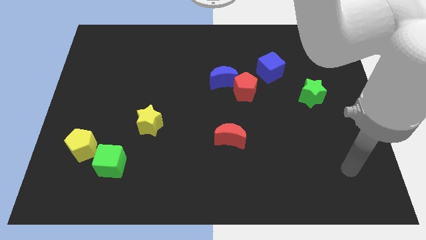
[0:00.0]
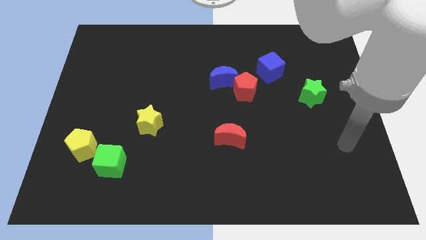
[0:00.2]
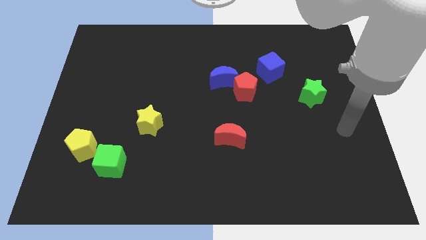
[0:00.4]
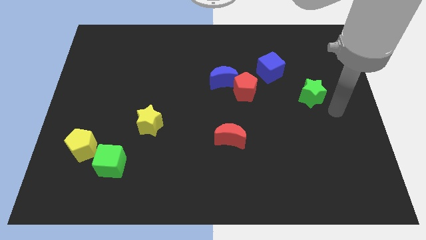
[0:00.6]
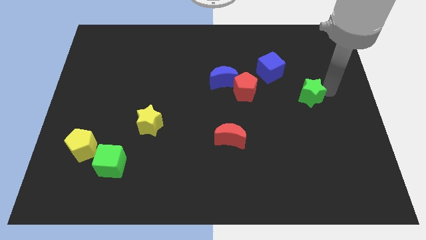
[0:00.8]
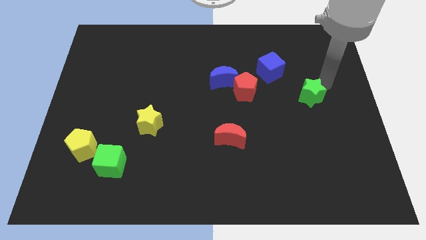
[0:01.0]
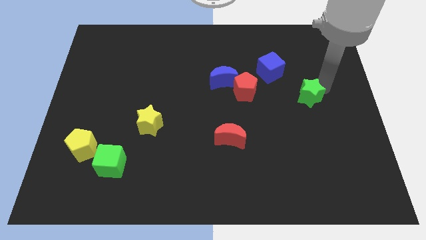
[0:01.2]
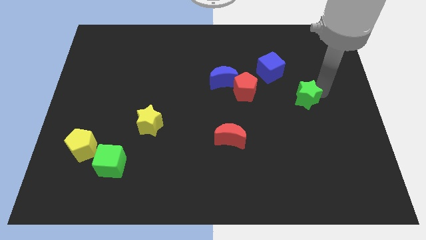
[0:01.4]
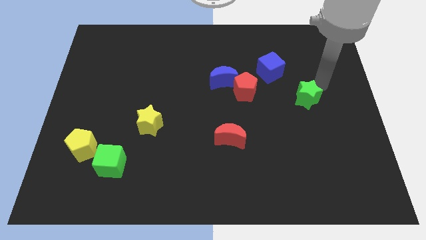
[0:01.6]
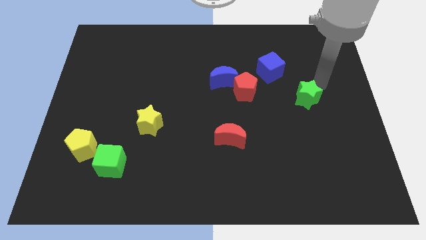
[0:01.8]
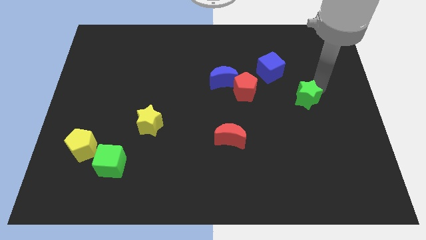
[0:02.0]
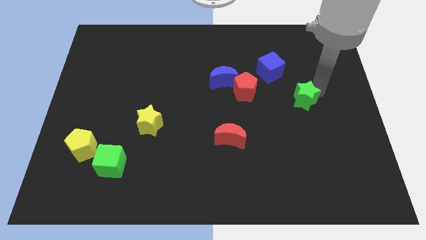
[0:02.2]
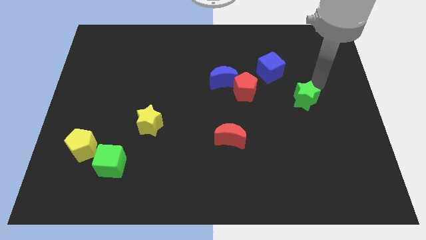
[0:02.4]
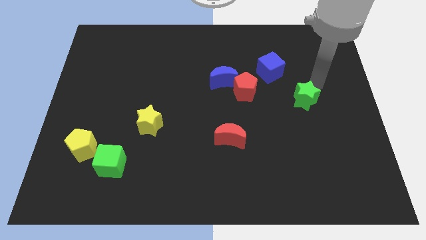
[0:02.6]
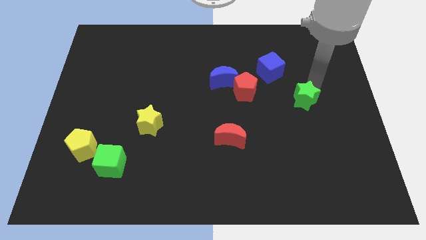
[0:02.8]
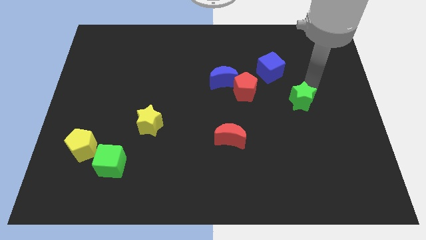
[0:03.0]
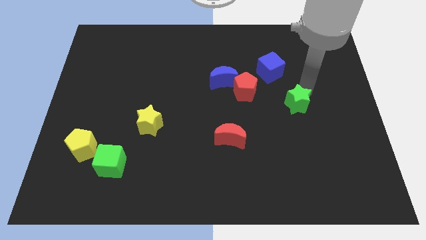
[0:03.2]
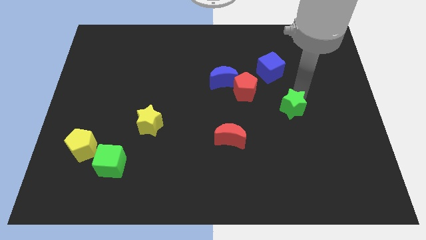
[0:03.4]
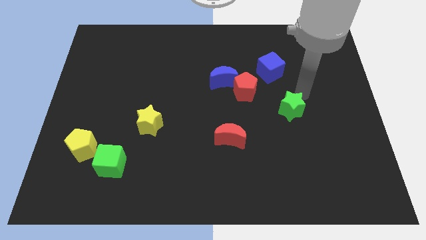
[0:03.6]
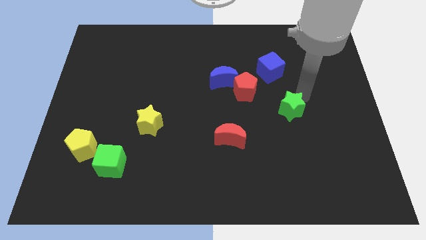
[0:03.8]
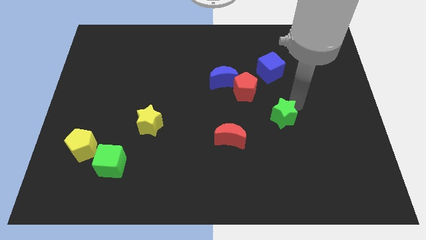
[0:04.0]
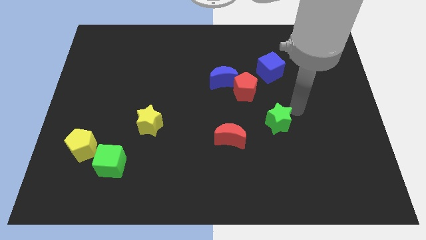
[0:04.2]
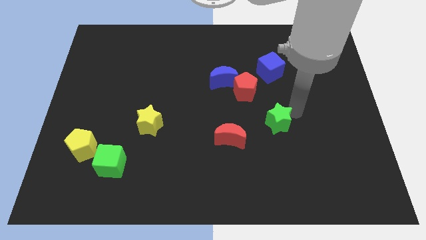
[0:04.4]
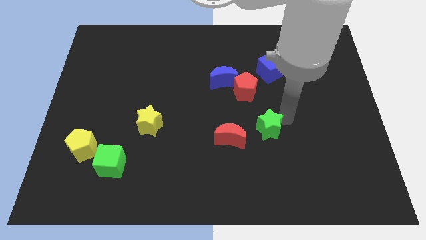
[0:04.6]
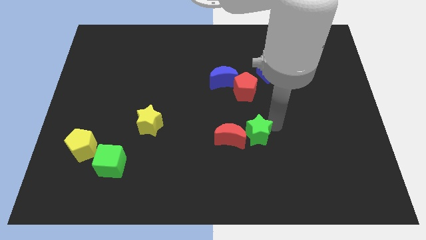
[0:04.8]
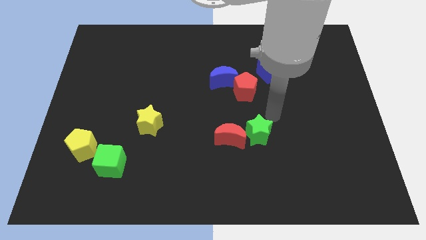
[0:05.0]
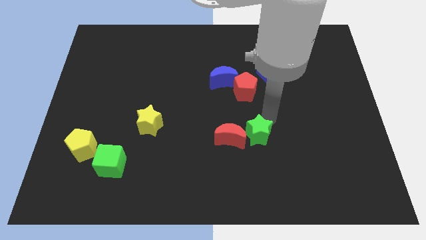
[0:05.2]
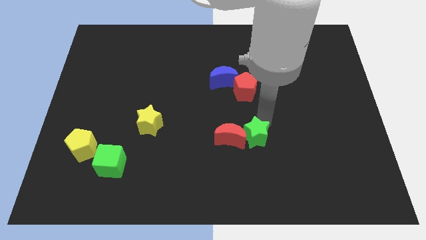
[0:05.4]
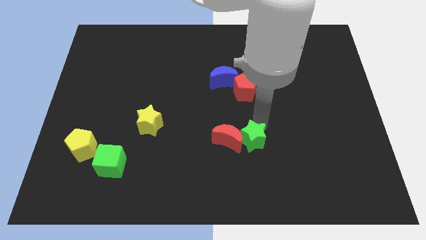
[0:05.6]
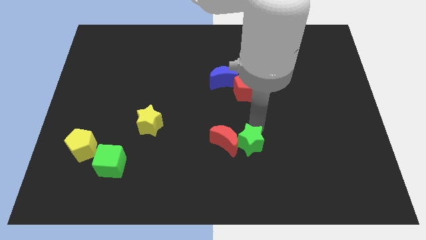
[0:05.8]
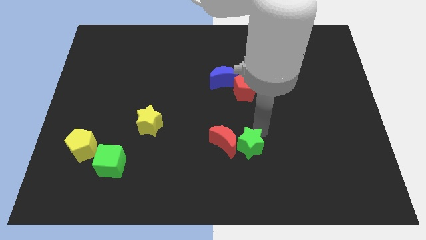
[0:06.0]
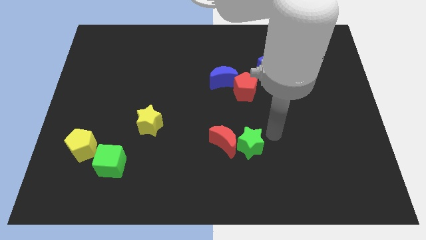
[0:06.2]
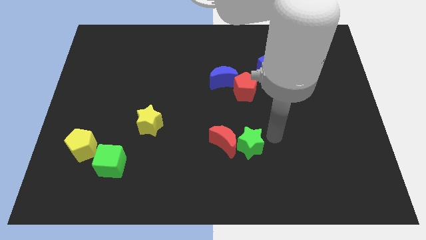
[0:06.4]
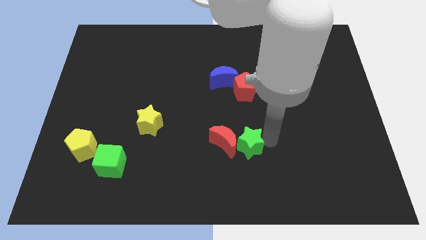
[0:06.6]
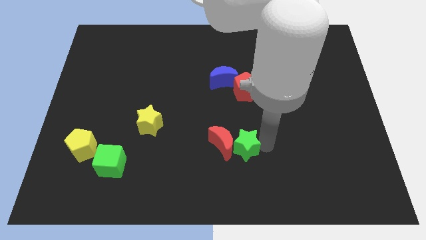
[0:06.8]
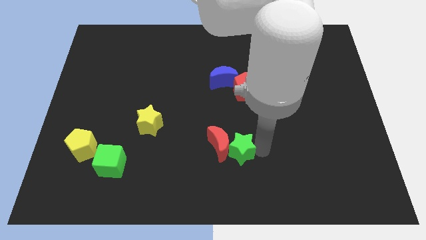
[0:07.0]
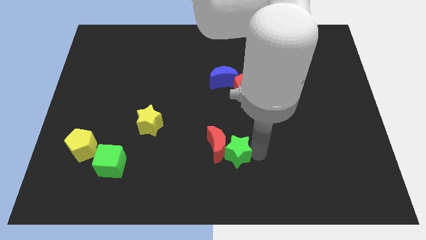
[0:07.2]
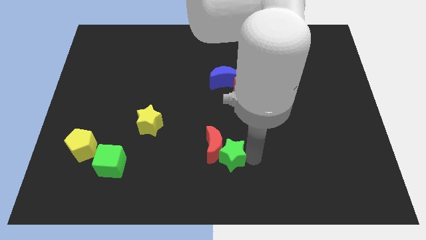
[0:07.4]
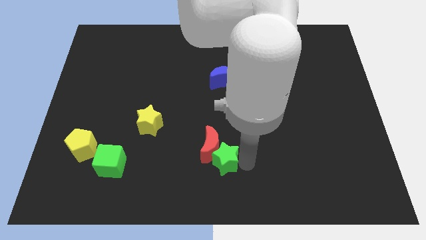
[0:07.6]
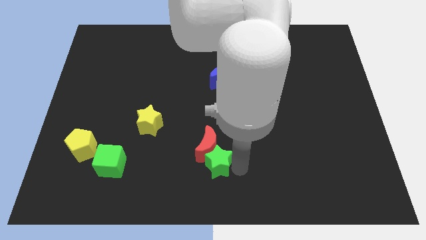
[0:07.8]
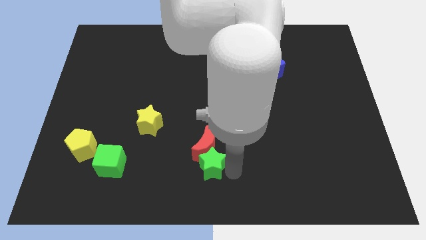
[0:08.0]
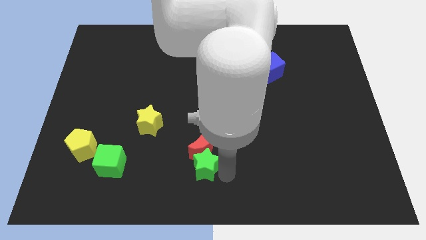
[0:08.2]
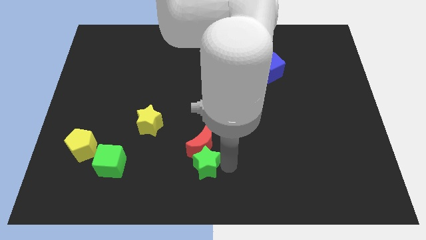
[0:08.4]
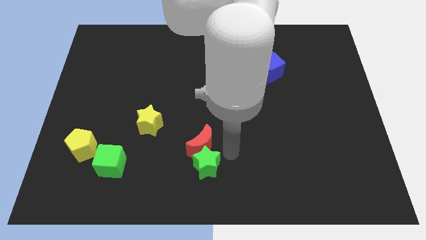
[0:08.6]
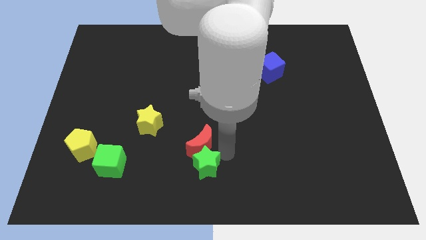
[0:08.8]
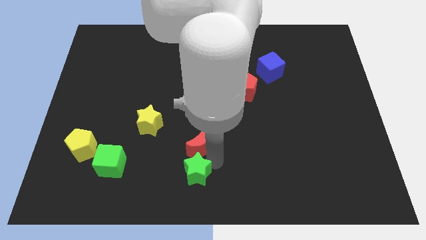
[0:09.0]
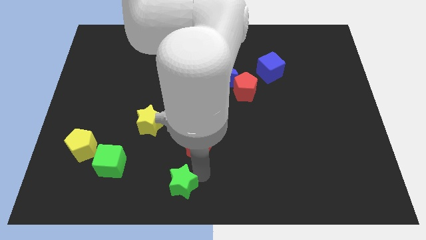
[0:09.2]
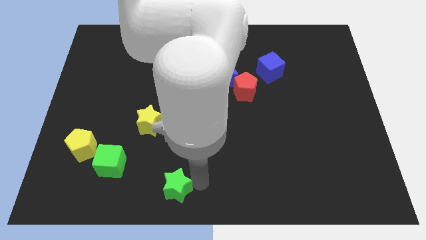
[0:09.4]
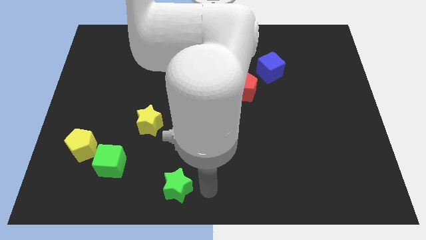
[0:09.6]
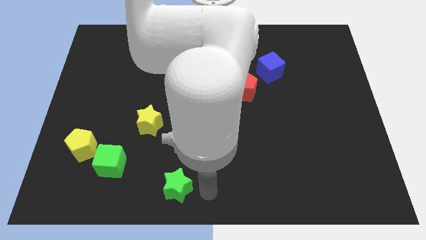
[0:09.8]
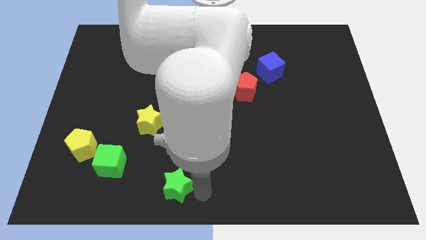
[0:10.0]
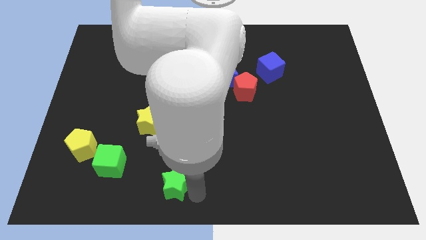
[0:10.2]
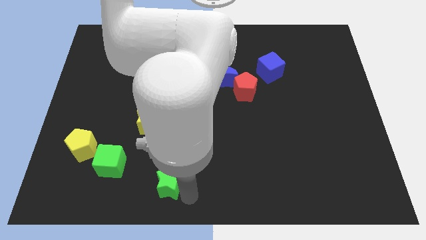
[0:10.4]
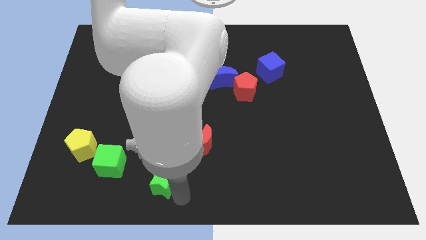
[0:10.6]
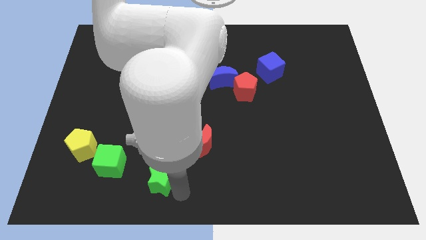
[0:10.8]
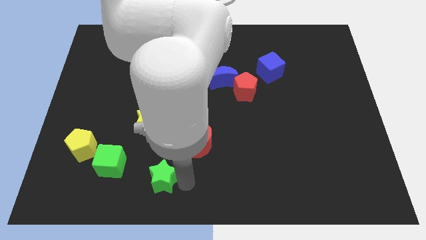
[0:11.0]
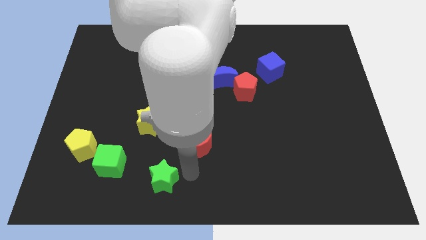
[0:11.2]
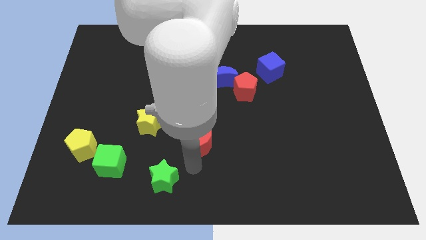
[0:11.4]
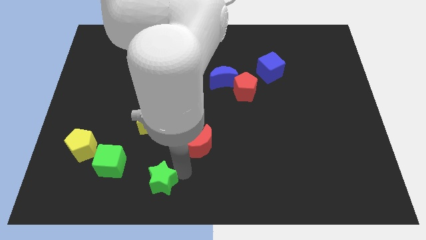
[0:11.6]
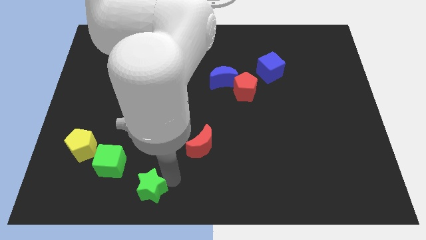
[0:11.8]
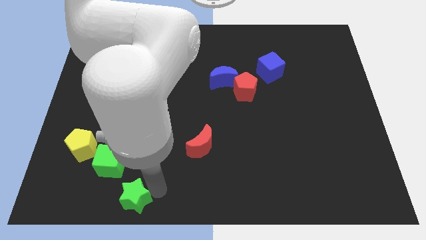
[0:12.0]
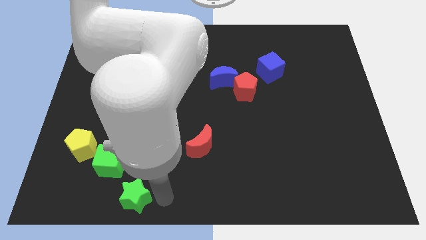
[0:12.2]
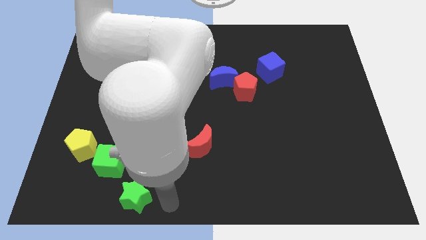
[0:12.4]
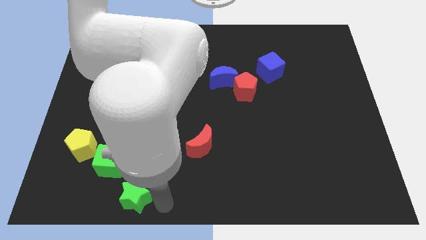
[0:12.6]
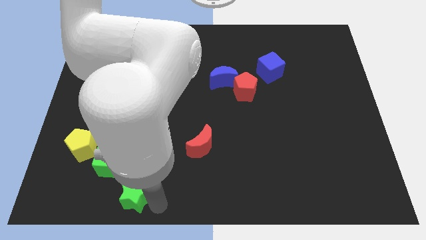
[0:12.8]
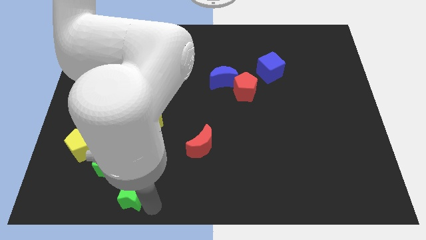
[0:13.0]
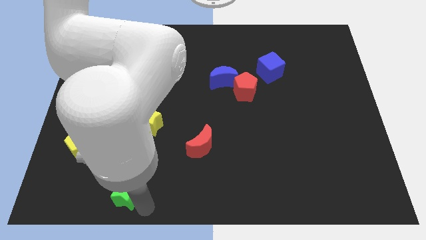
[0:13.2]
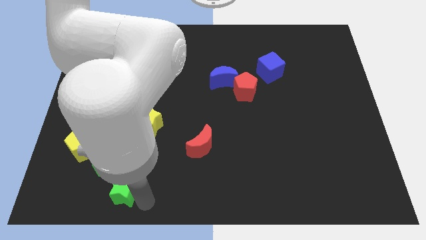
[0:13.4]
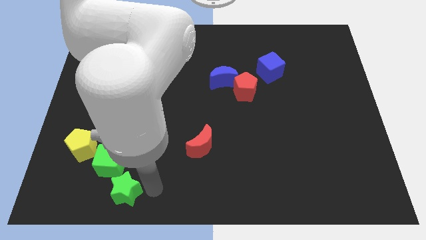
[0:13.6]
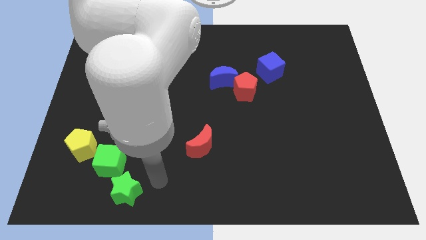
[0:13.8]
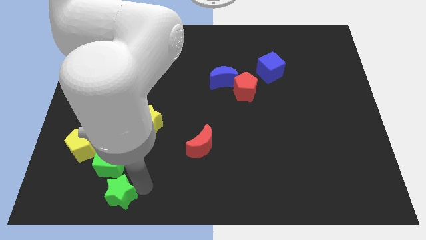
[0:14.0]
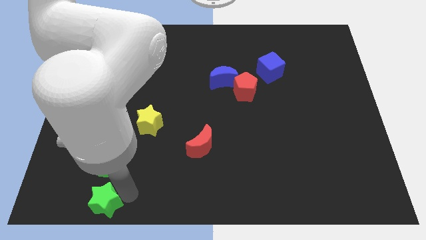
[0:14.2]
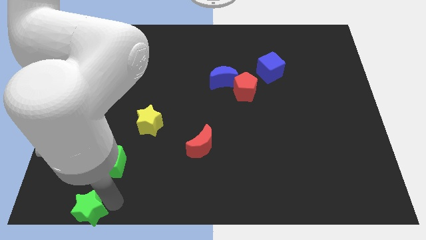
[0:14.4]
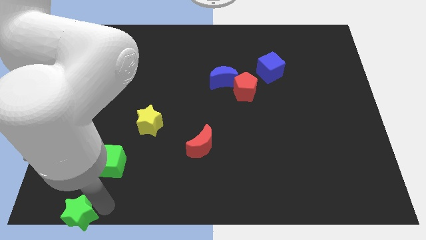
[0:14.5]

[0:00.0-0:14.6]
put the green star to the bottom left of the board
